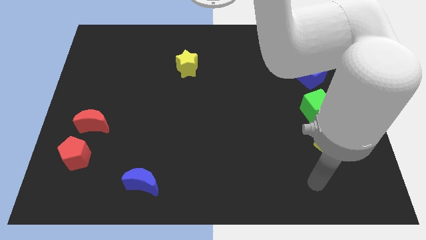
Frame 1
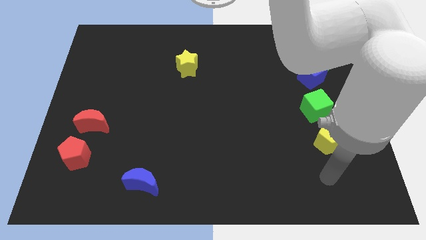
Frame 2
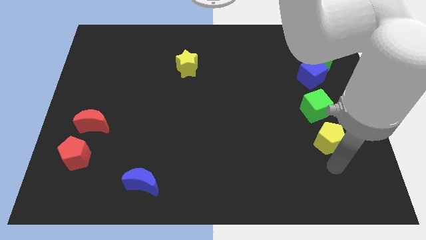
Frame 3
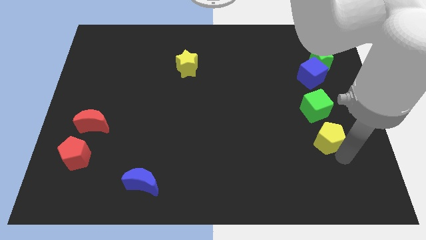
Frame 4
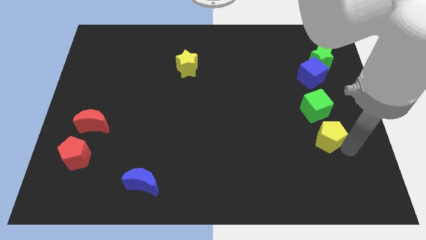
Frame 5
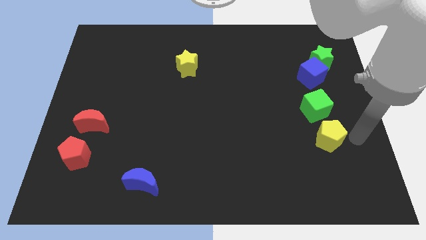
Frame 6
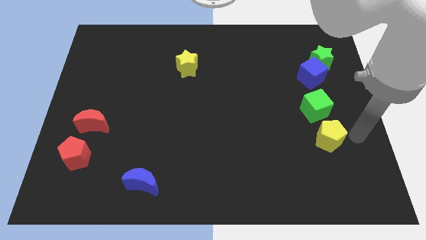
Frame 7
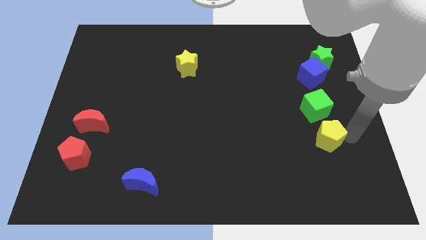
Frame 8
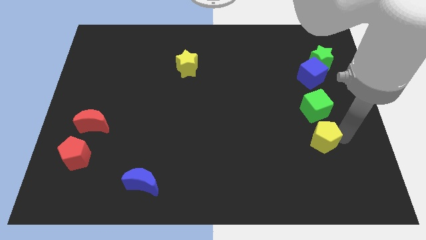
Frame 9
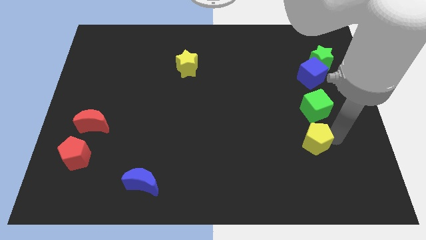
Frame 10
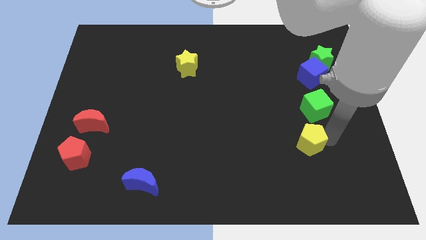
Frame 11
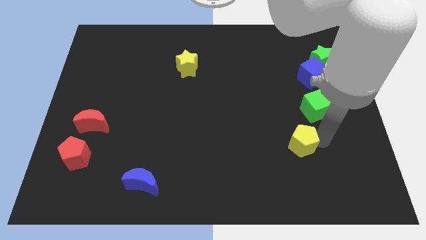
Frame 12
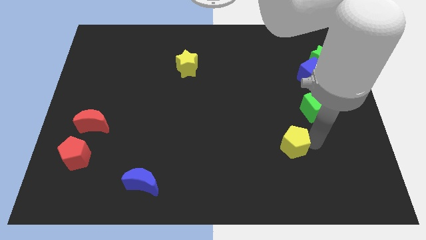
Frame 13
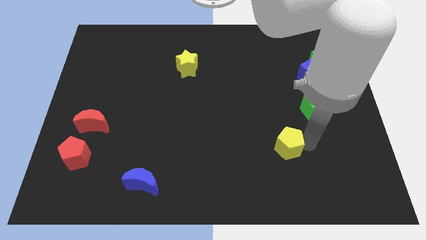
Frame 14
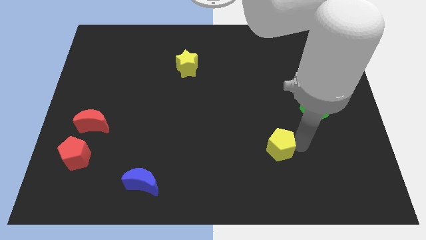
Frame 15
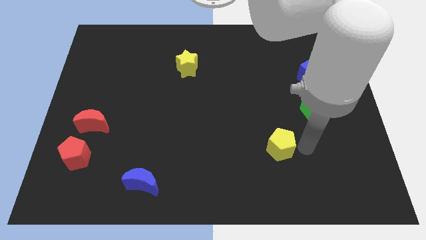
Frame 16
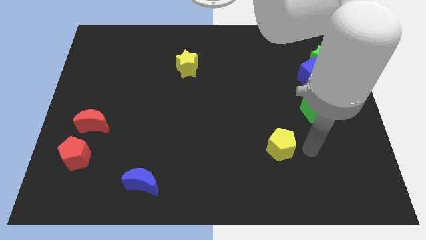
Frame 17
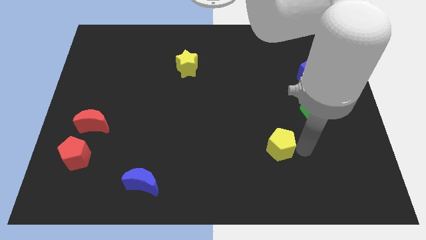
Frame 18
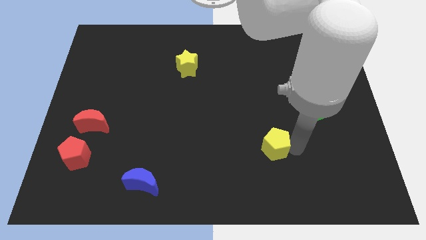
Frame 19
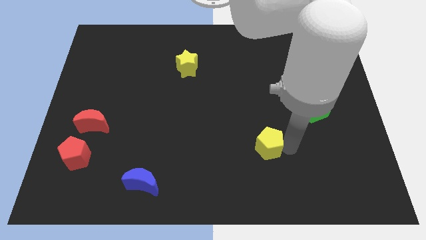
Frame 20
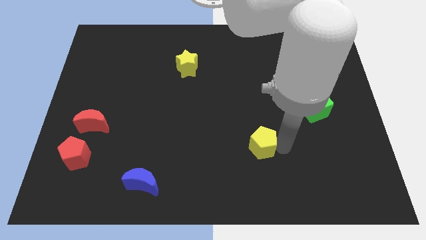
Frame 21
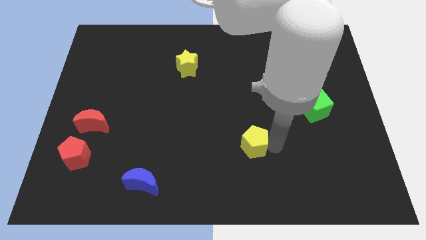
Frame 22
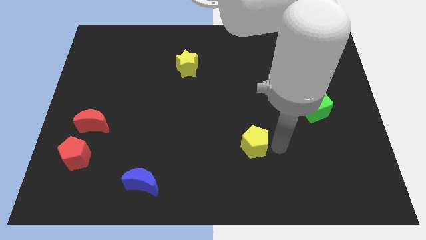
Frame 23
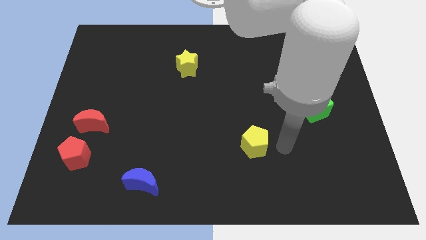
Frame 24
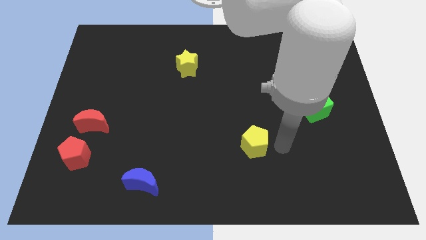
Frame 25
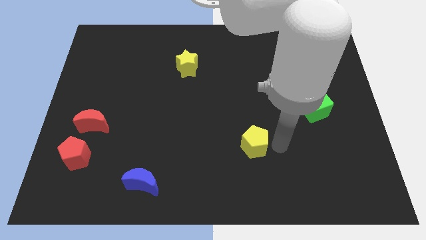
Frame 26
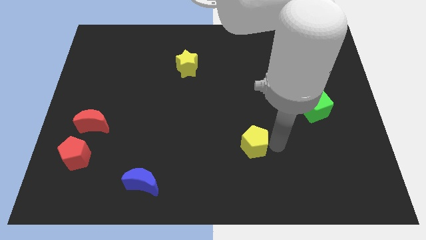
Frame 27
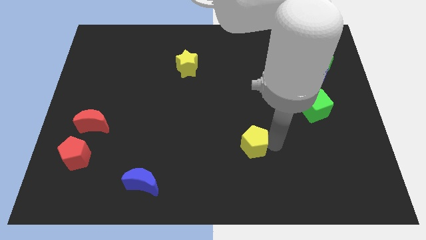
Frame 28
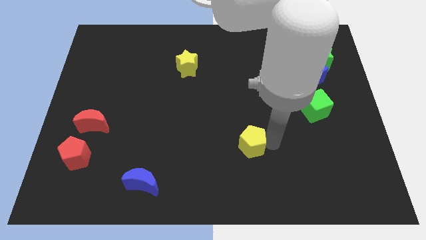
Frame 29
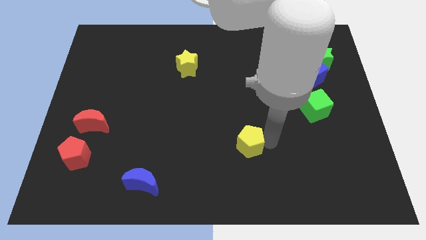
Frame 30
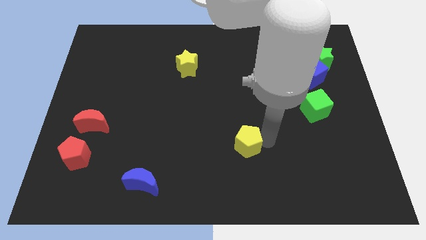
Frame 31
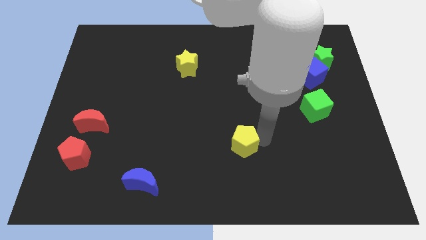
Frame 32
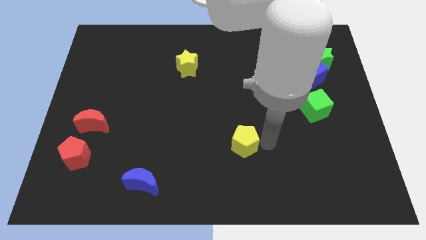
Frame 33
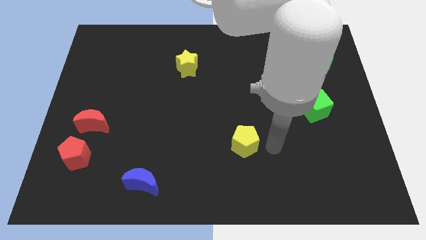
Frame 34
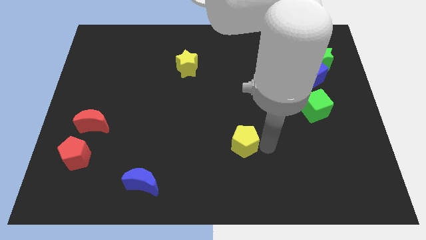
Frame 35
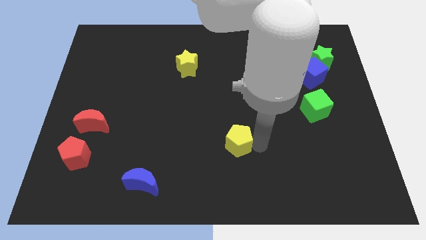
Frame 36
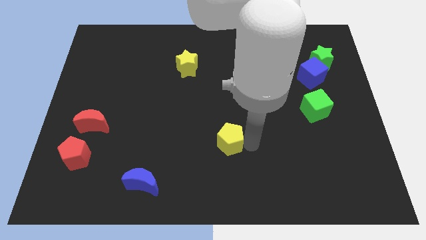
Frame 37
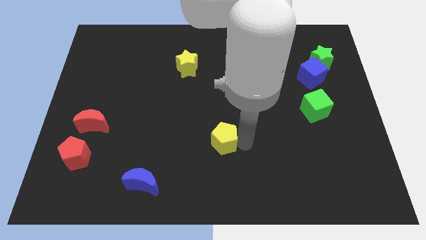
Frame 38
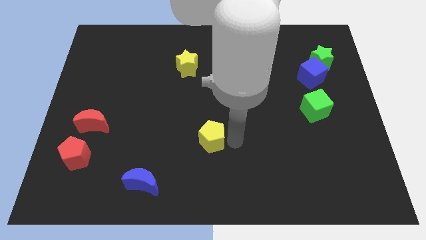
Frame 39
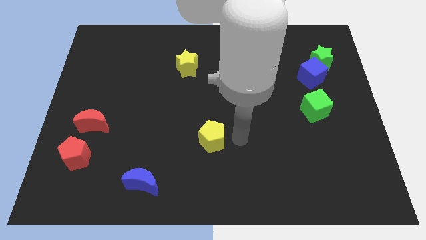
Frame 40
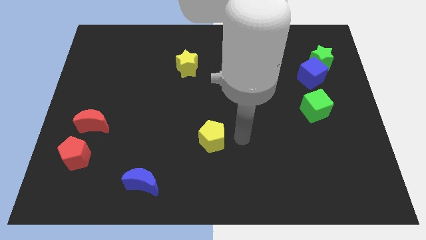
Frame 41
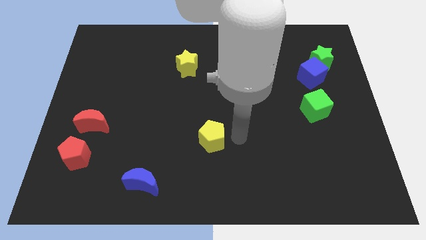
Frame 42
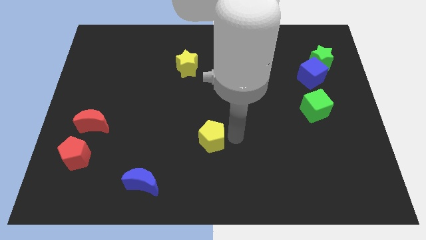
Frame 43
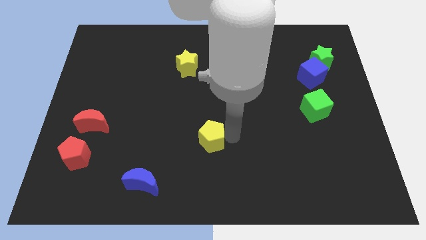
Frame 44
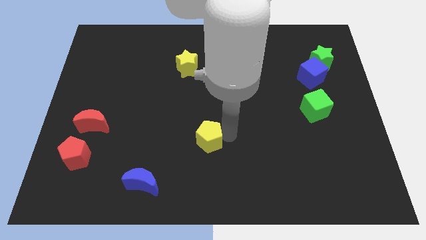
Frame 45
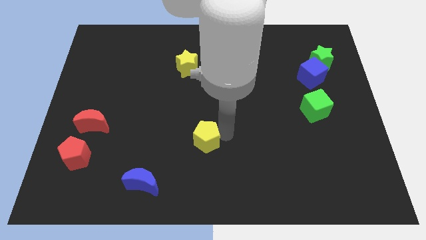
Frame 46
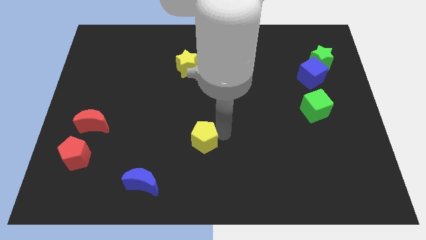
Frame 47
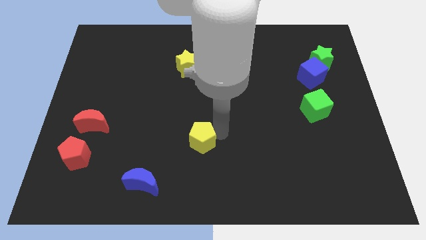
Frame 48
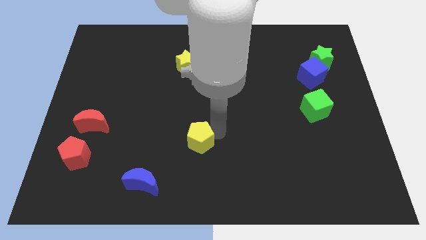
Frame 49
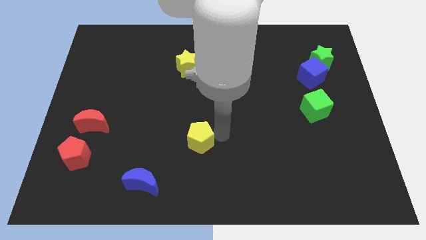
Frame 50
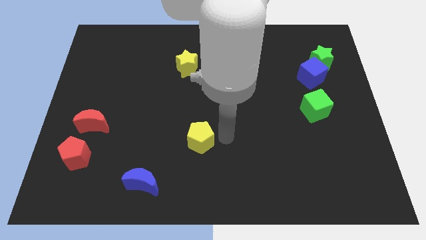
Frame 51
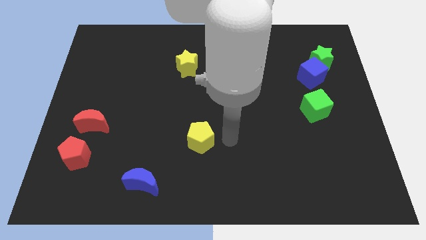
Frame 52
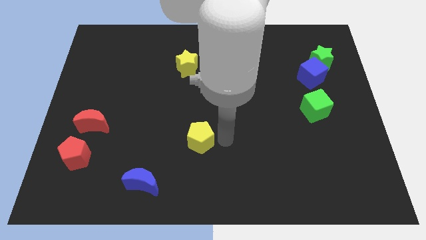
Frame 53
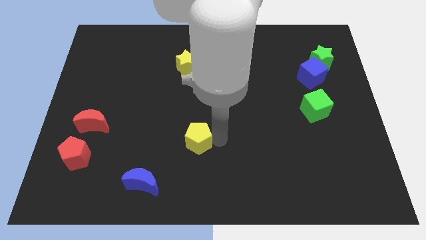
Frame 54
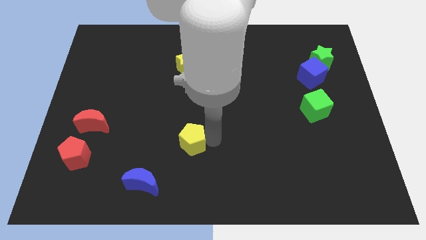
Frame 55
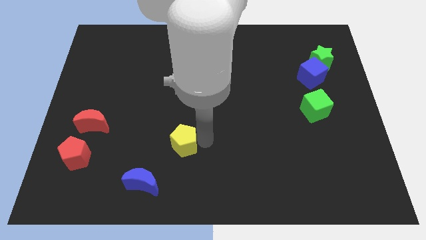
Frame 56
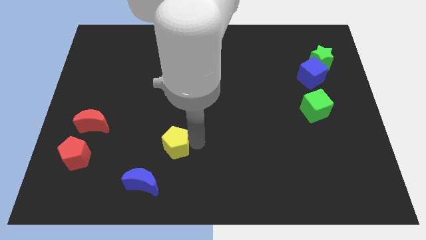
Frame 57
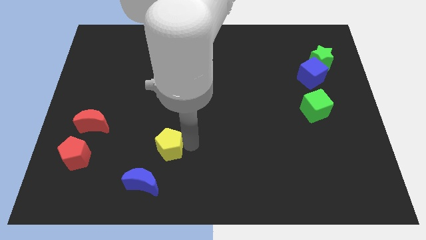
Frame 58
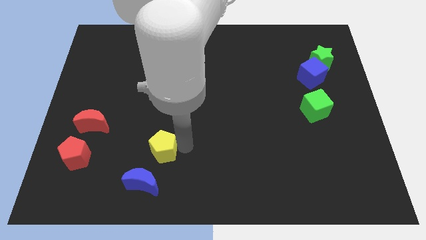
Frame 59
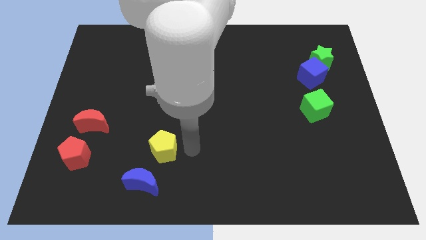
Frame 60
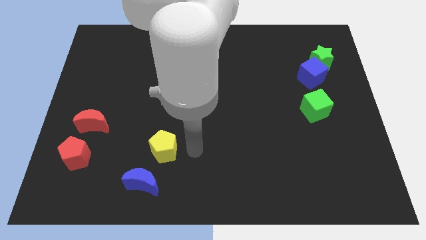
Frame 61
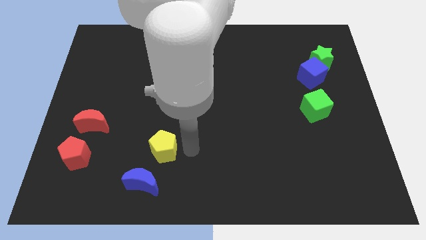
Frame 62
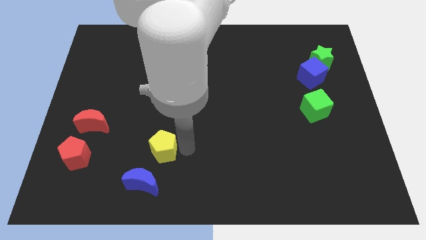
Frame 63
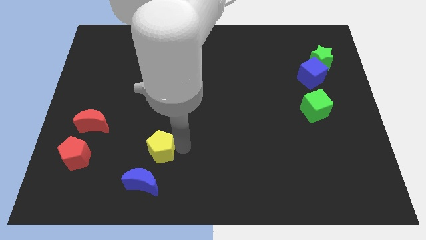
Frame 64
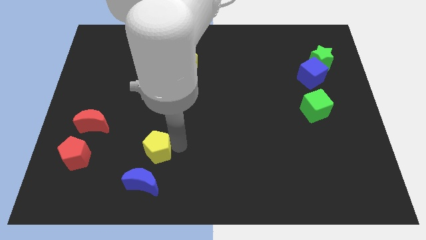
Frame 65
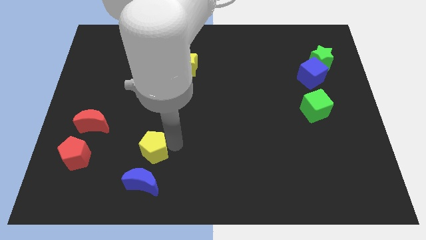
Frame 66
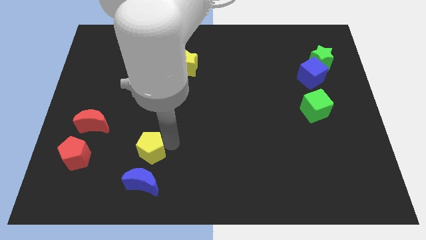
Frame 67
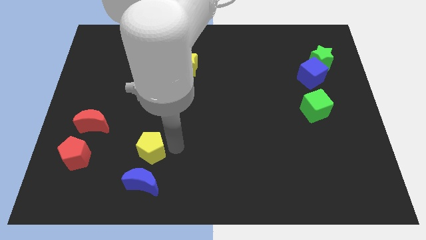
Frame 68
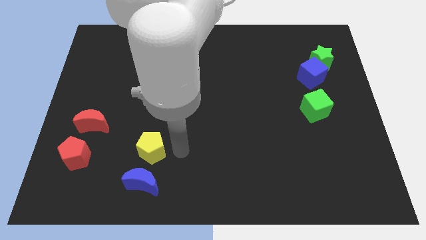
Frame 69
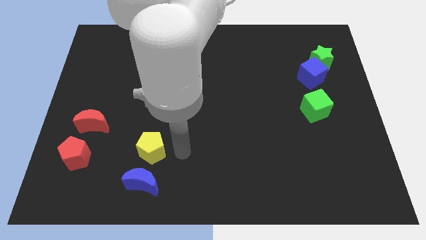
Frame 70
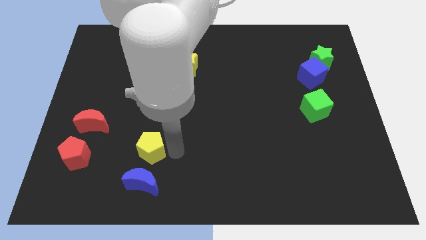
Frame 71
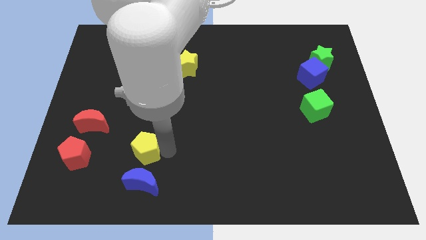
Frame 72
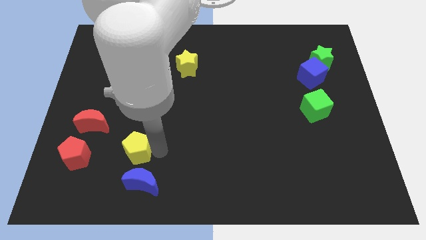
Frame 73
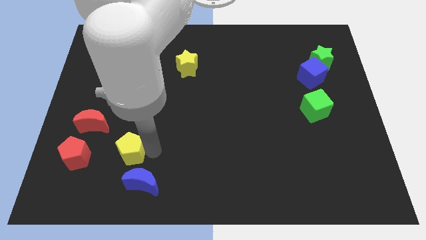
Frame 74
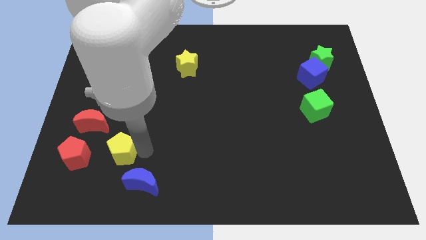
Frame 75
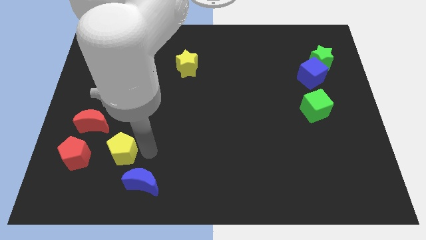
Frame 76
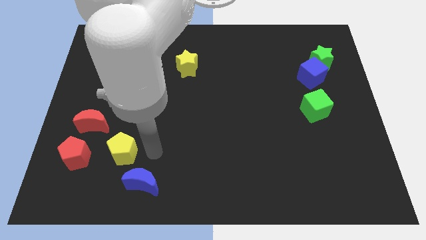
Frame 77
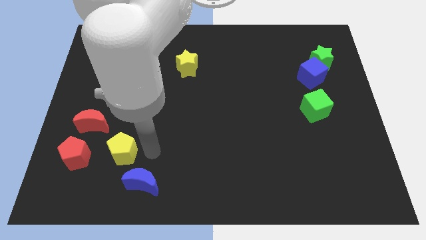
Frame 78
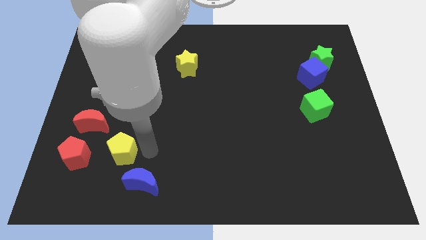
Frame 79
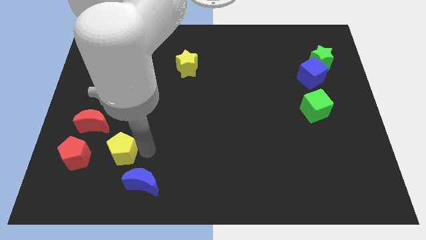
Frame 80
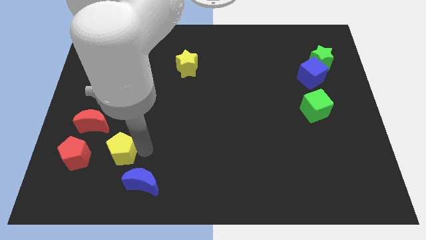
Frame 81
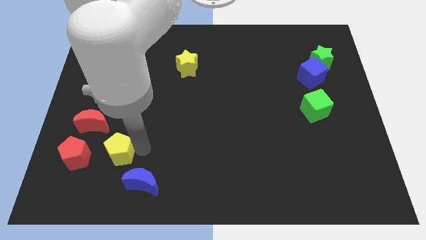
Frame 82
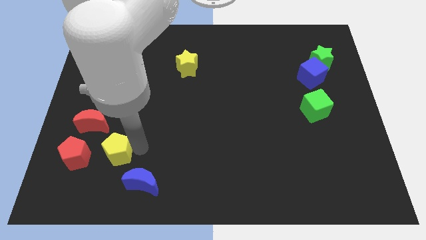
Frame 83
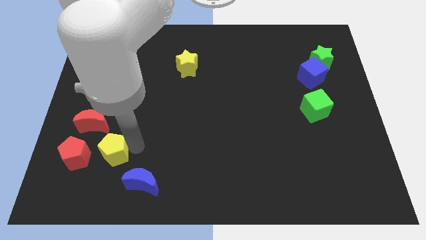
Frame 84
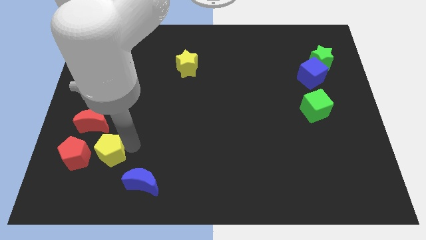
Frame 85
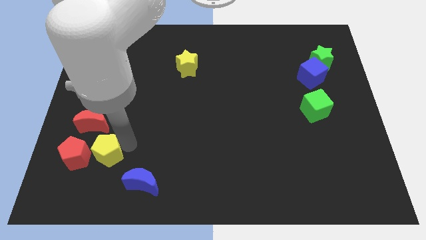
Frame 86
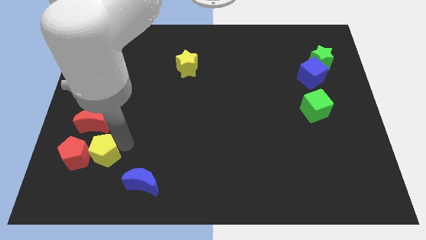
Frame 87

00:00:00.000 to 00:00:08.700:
slide the yellow pentagon next to the red pentagon
